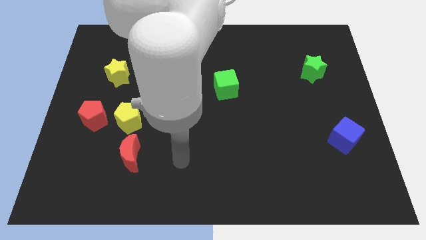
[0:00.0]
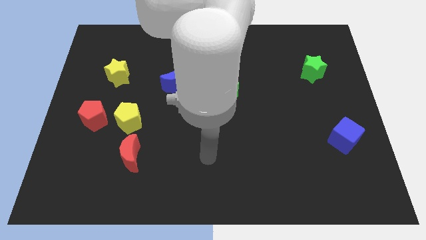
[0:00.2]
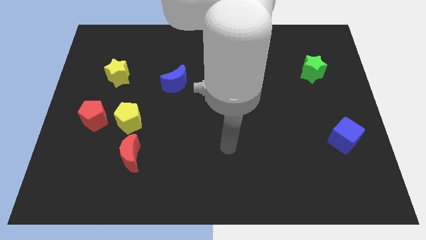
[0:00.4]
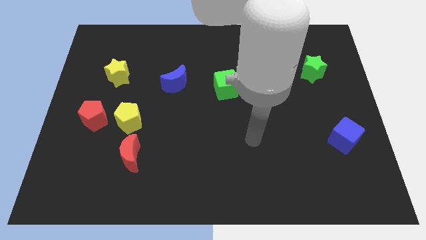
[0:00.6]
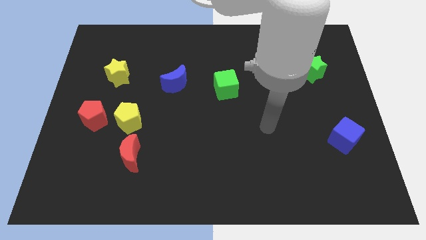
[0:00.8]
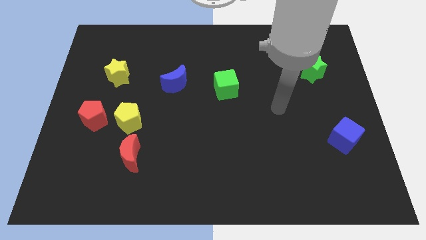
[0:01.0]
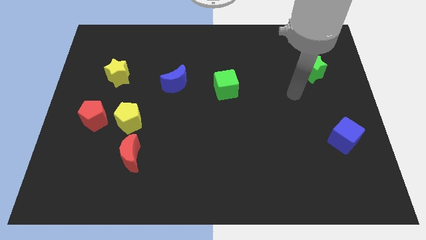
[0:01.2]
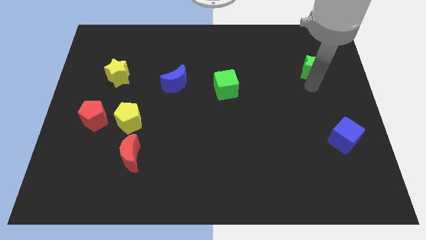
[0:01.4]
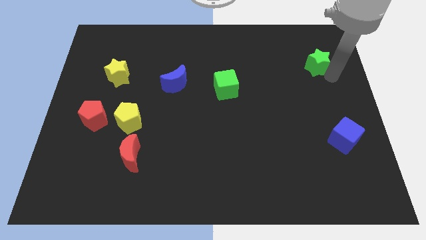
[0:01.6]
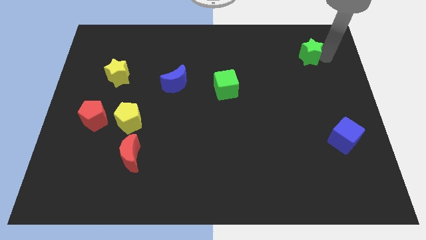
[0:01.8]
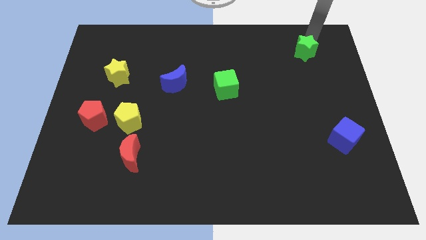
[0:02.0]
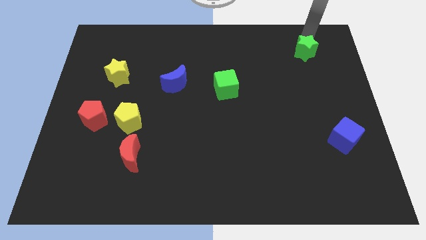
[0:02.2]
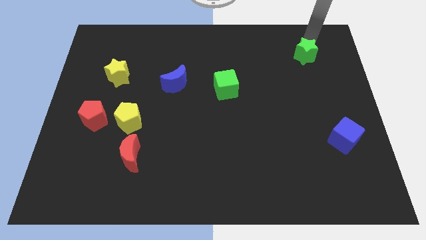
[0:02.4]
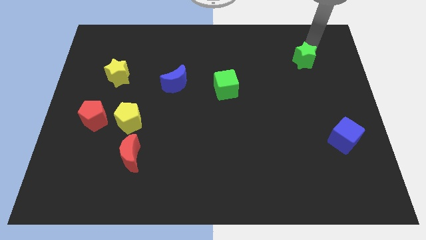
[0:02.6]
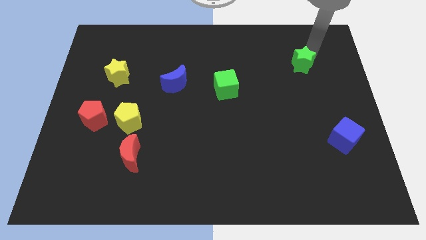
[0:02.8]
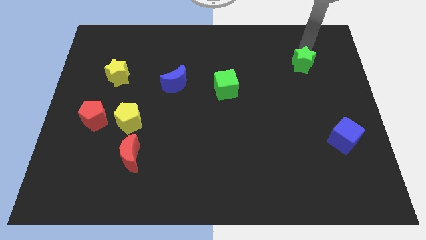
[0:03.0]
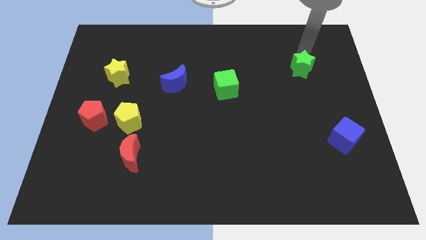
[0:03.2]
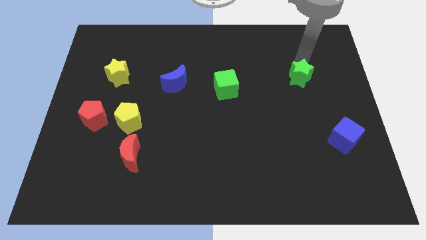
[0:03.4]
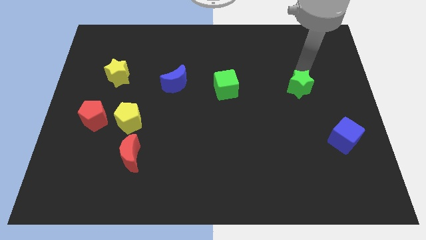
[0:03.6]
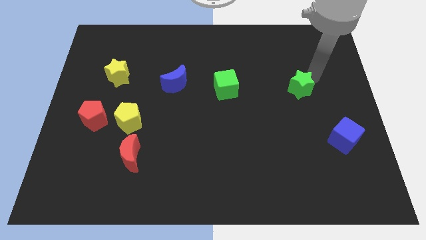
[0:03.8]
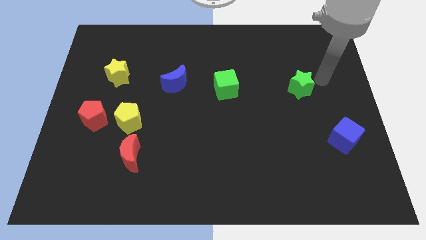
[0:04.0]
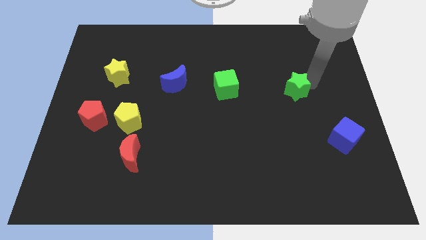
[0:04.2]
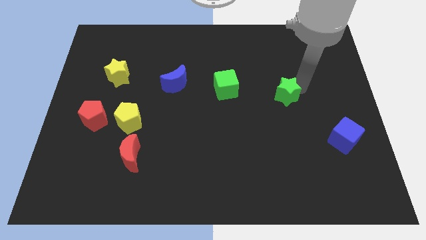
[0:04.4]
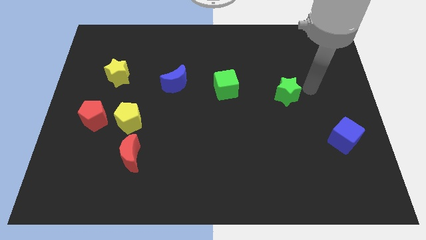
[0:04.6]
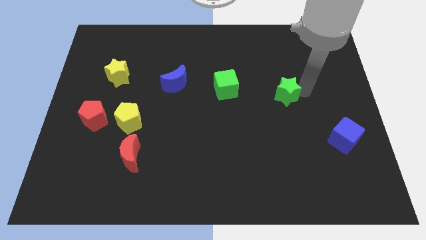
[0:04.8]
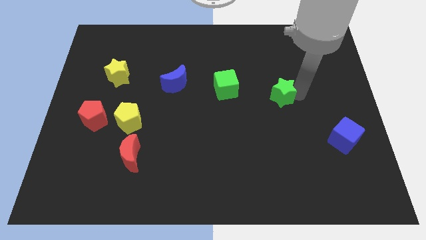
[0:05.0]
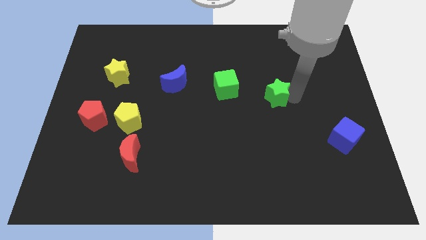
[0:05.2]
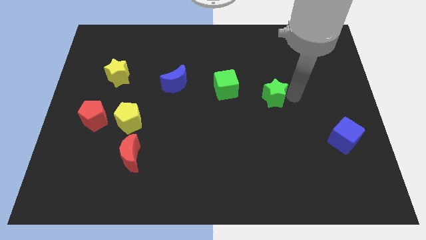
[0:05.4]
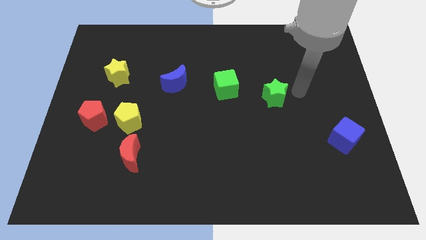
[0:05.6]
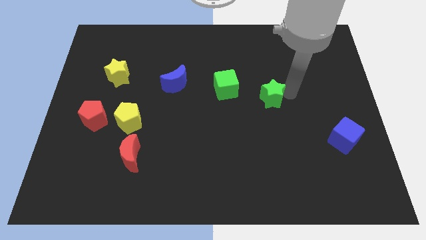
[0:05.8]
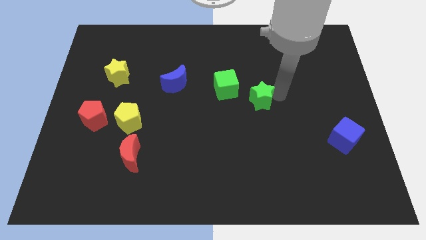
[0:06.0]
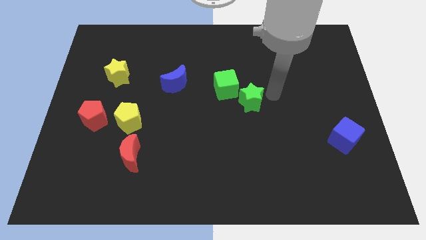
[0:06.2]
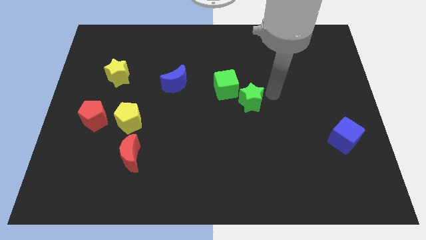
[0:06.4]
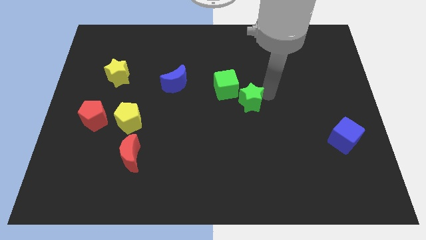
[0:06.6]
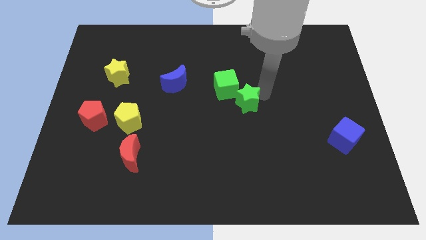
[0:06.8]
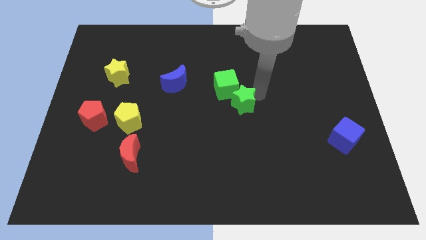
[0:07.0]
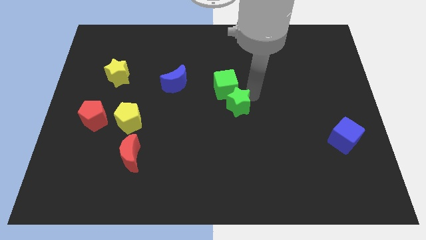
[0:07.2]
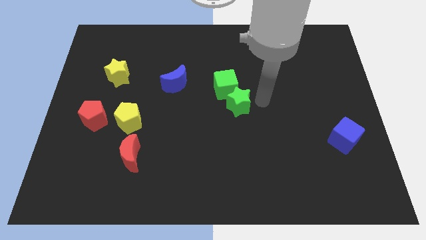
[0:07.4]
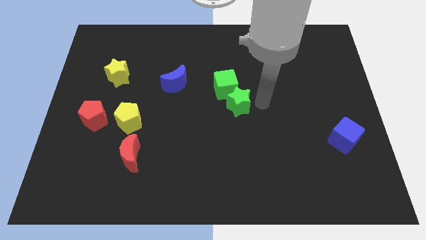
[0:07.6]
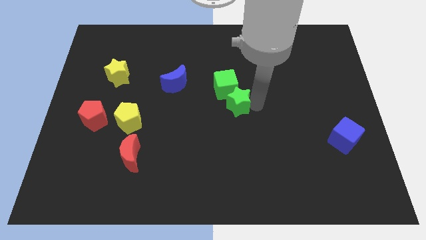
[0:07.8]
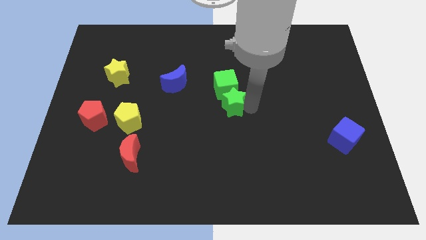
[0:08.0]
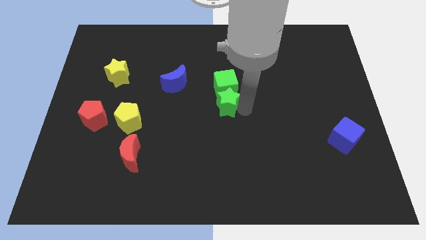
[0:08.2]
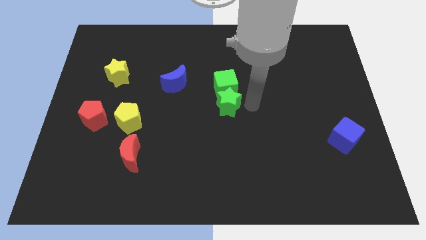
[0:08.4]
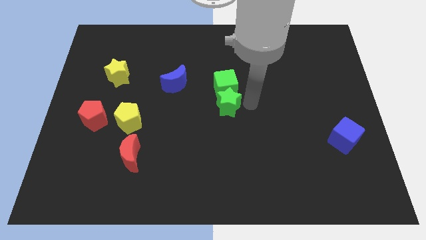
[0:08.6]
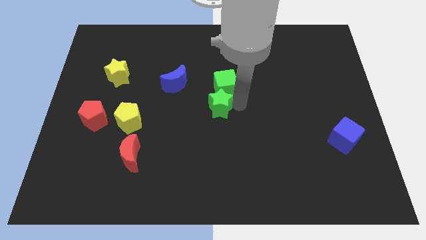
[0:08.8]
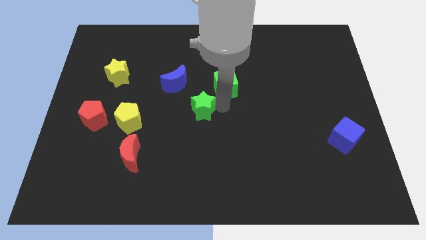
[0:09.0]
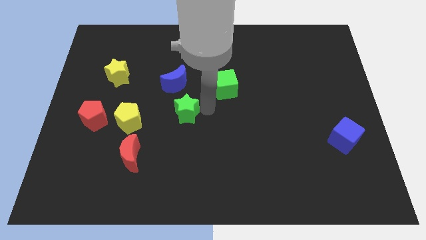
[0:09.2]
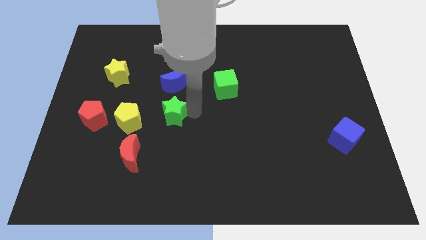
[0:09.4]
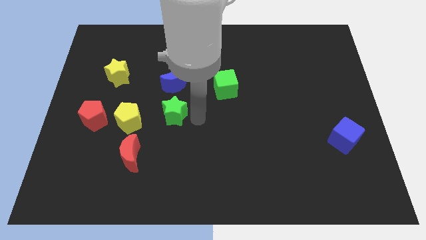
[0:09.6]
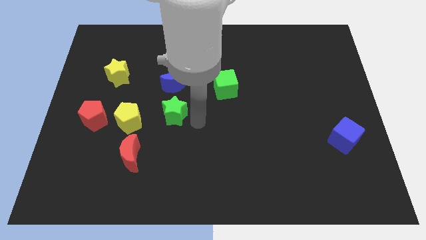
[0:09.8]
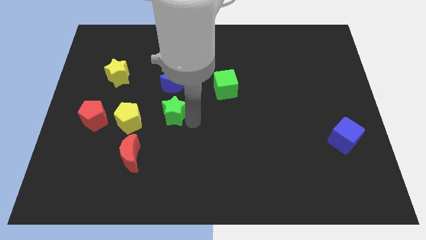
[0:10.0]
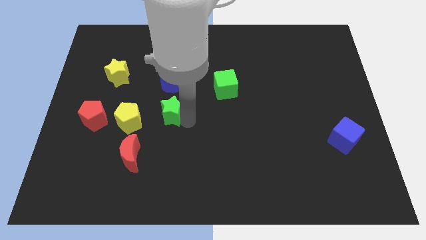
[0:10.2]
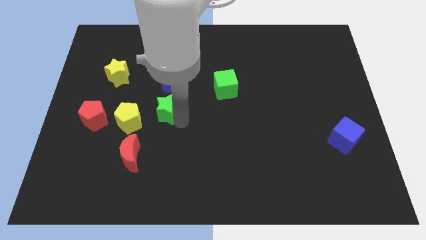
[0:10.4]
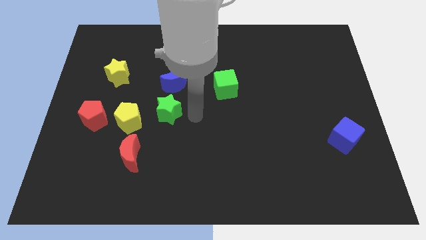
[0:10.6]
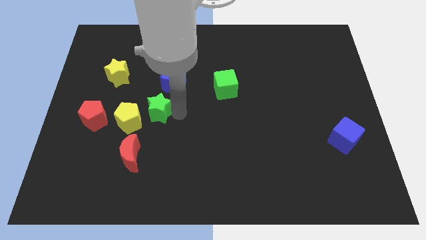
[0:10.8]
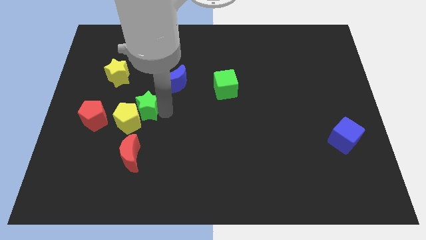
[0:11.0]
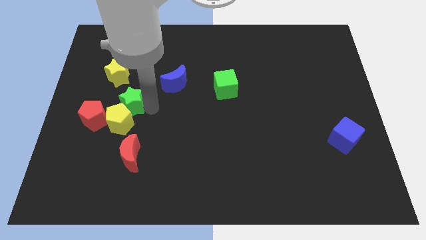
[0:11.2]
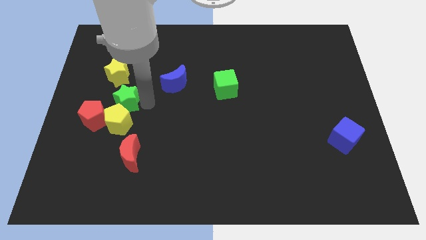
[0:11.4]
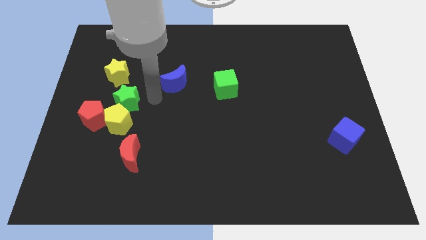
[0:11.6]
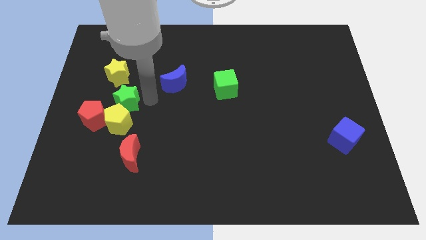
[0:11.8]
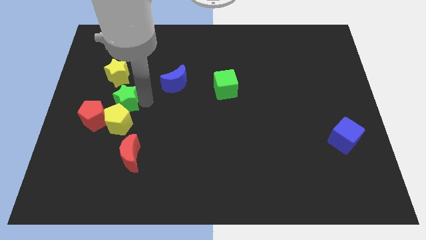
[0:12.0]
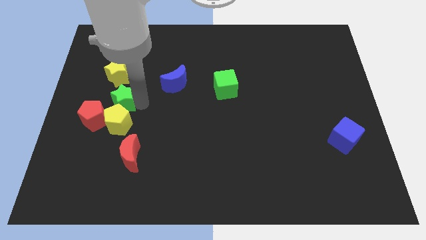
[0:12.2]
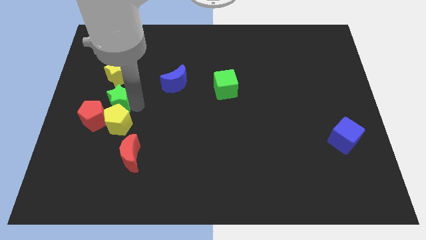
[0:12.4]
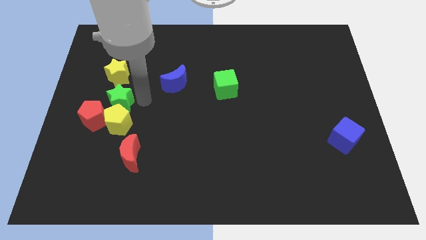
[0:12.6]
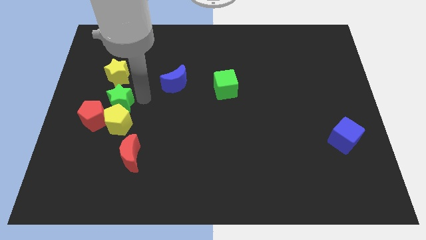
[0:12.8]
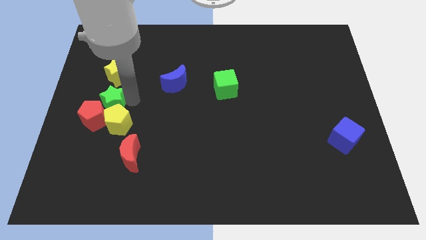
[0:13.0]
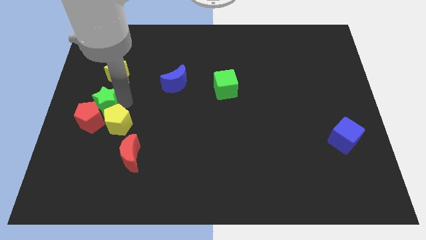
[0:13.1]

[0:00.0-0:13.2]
slide the green star to the left side
